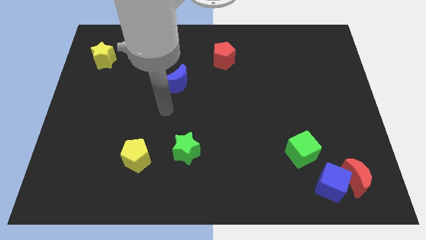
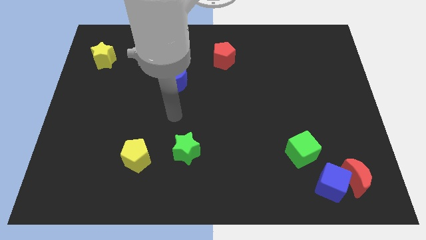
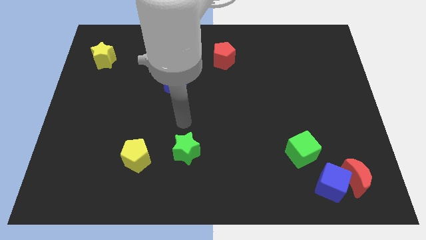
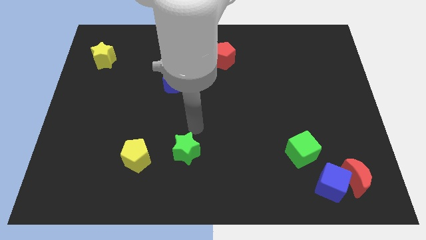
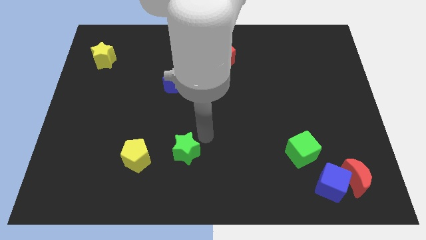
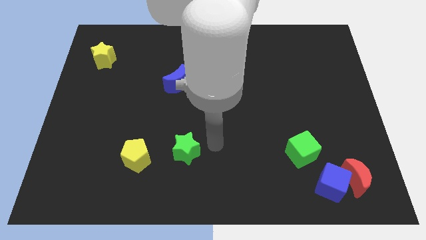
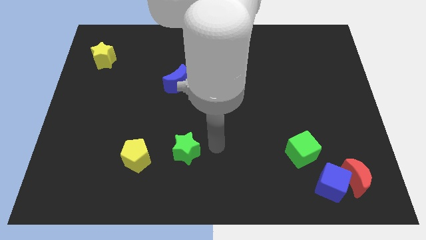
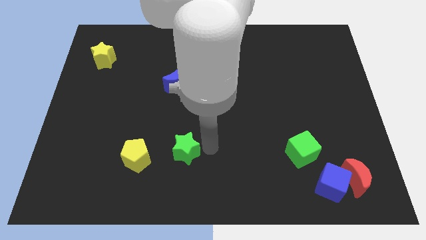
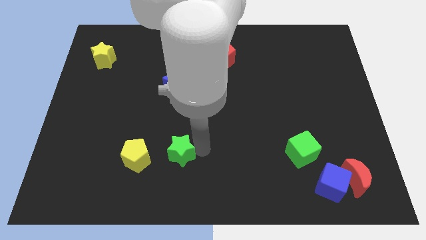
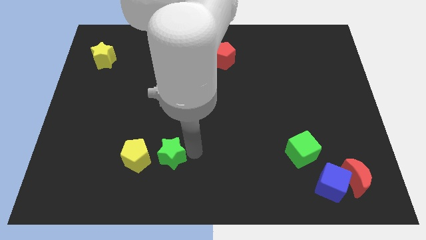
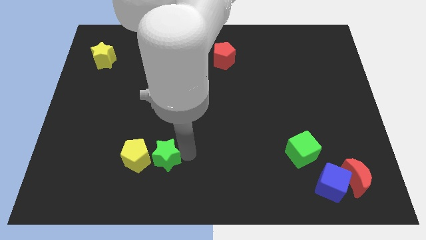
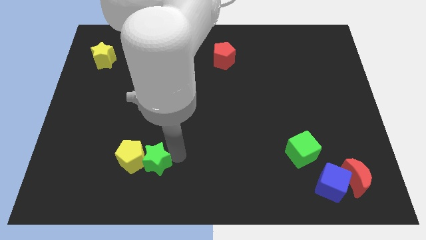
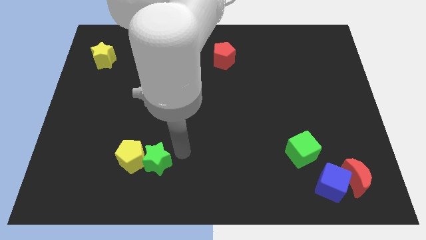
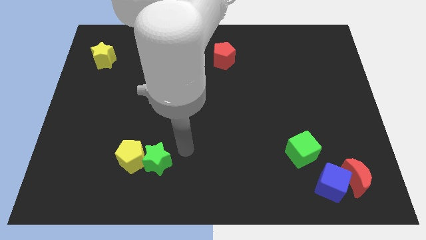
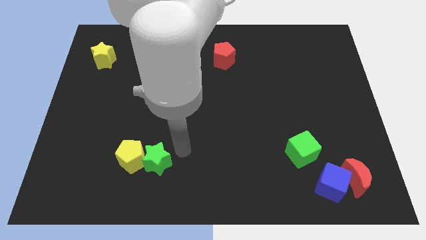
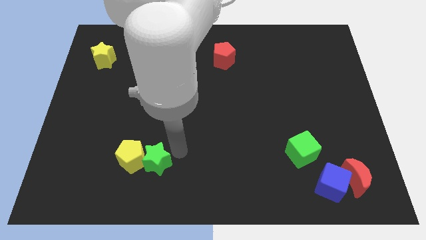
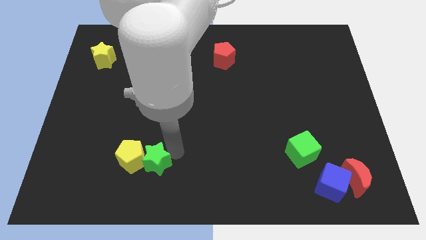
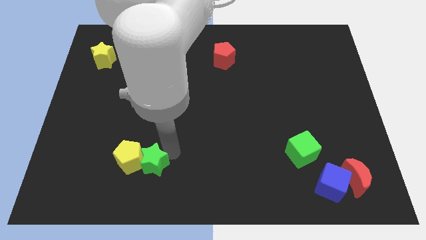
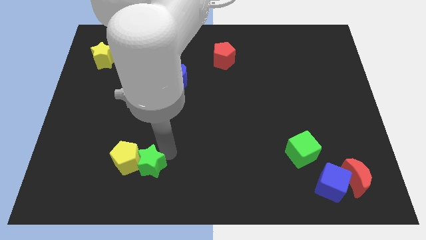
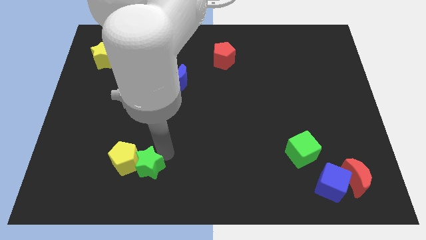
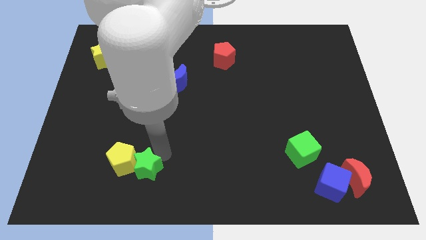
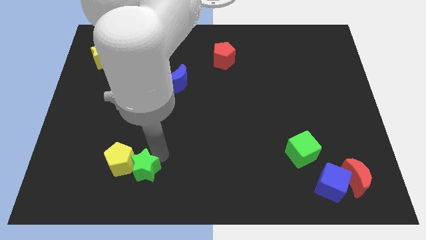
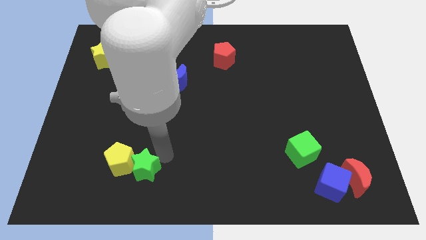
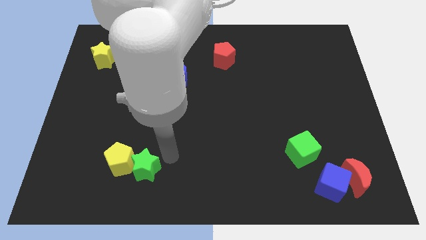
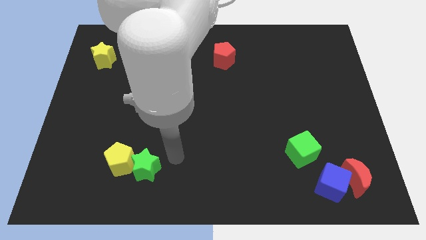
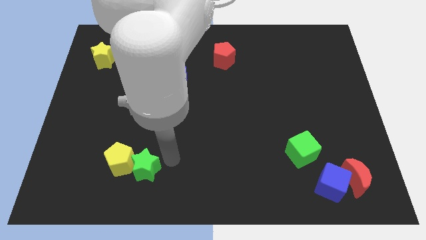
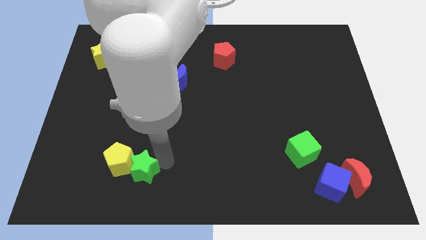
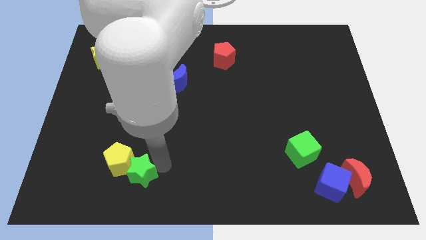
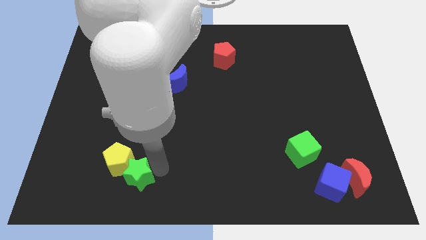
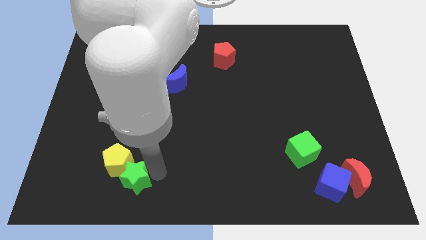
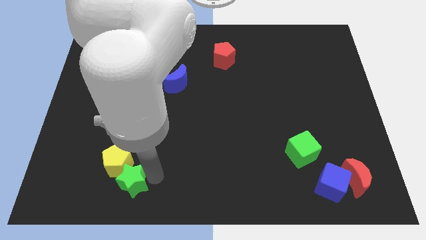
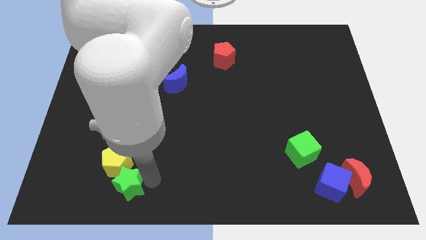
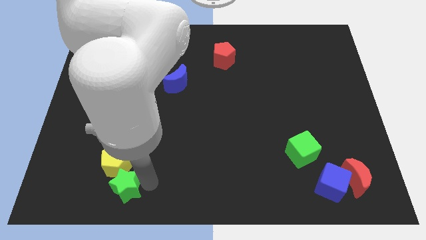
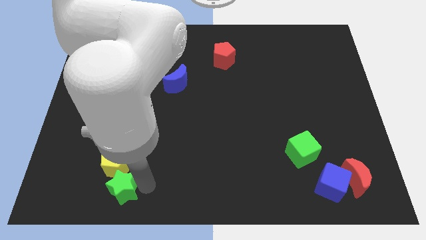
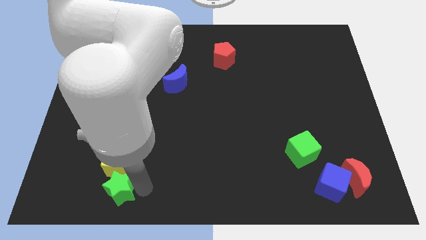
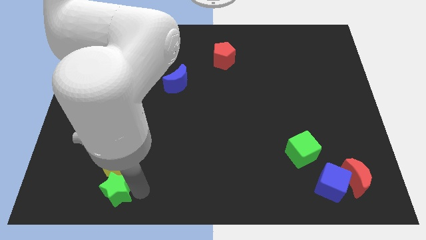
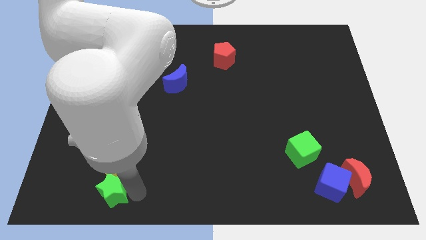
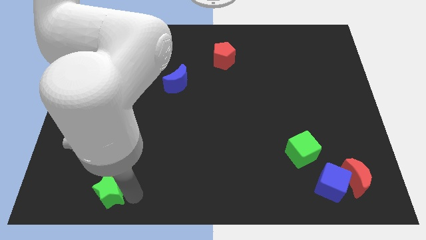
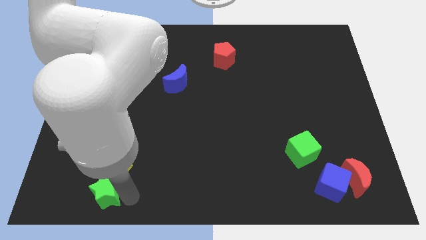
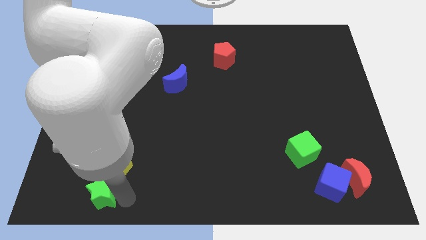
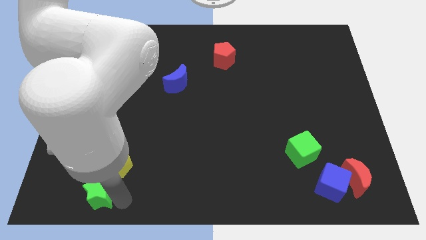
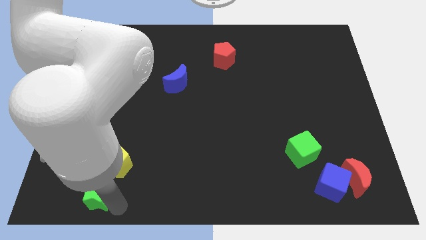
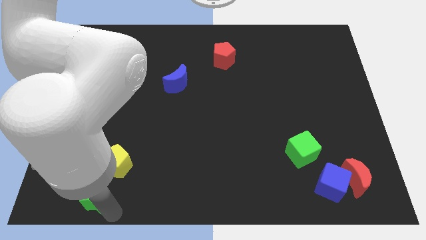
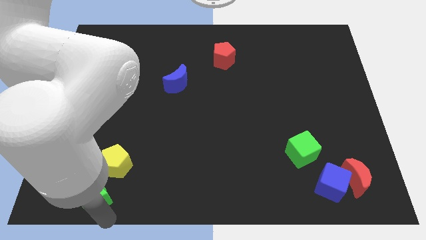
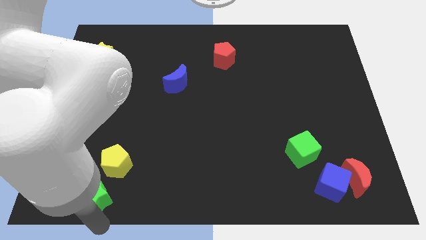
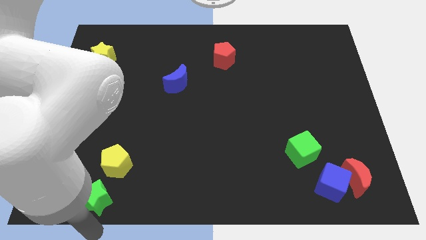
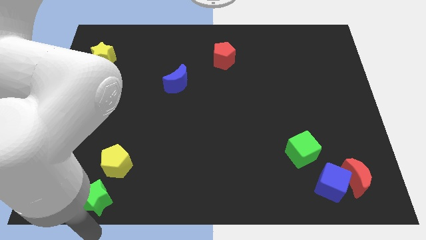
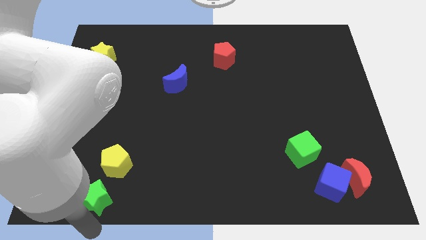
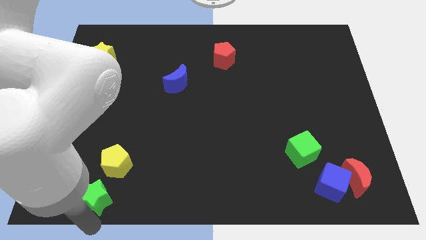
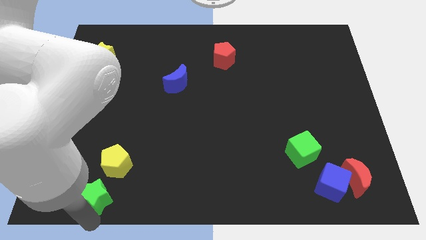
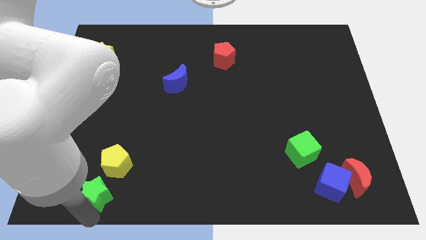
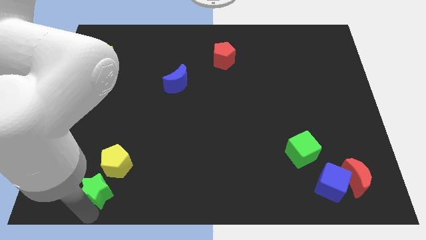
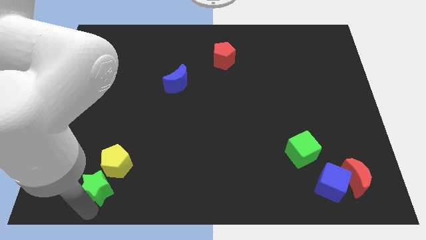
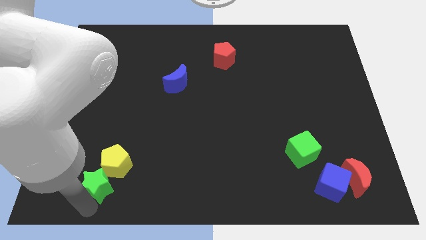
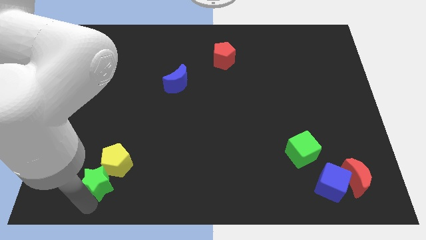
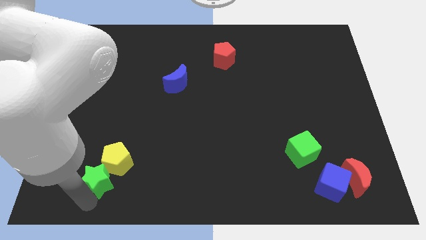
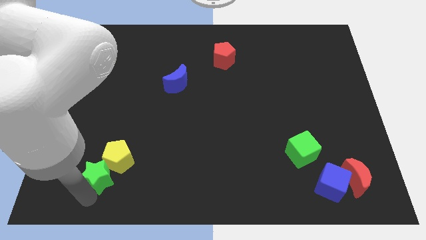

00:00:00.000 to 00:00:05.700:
push the green star just left of the yellow pentagon
